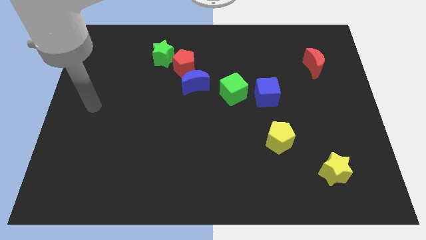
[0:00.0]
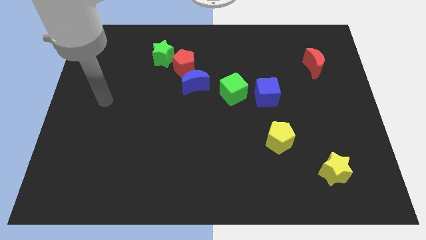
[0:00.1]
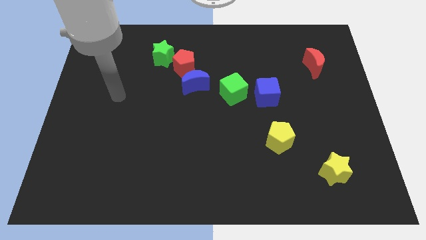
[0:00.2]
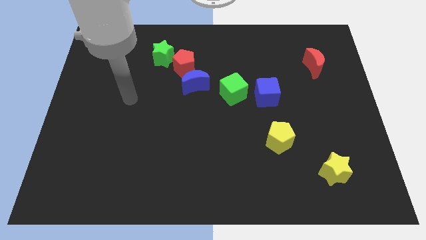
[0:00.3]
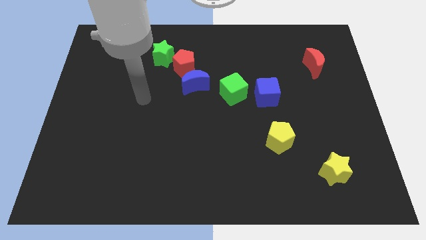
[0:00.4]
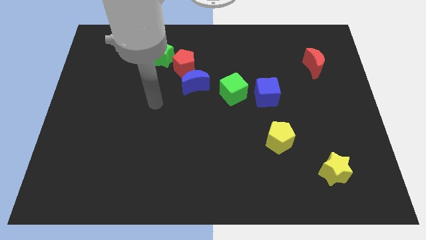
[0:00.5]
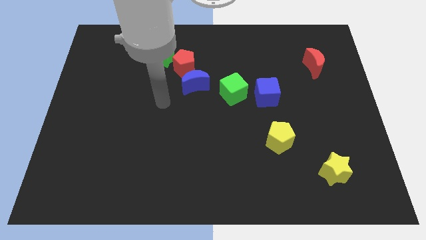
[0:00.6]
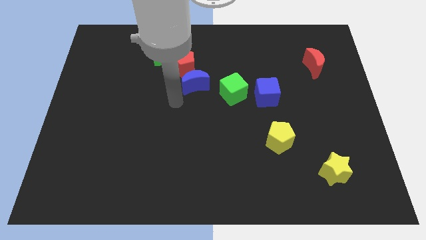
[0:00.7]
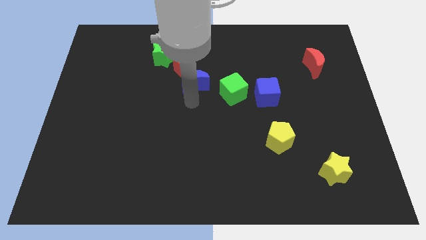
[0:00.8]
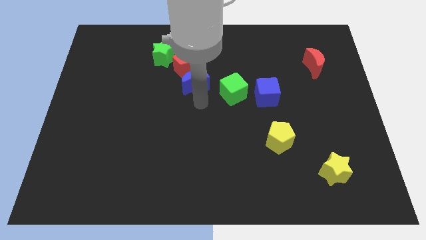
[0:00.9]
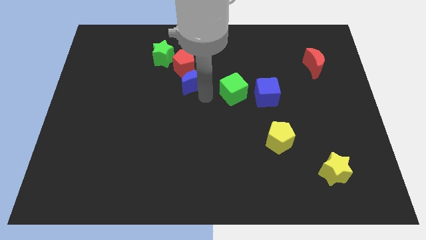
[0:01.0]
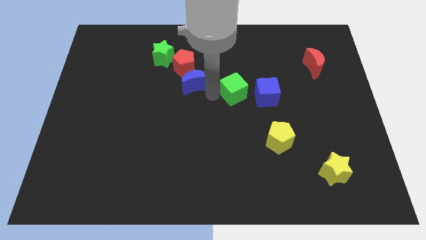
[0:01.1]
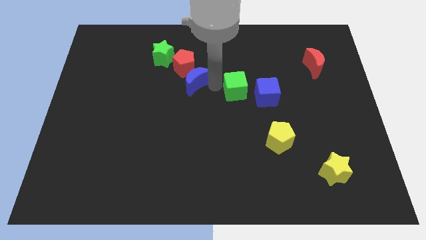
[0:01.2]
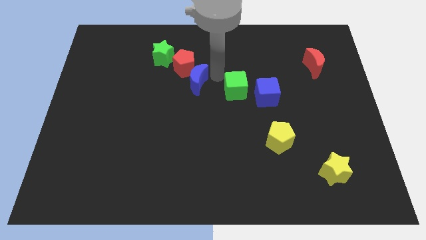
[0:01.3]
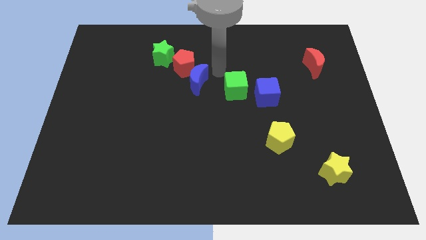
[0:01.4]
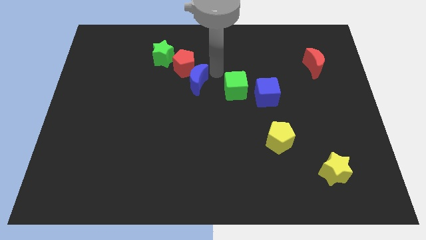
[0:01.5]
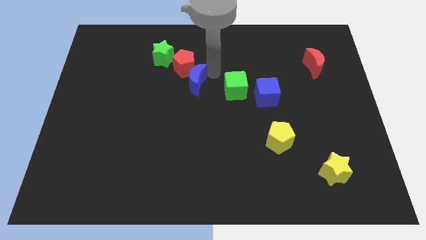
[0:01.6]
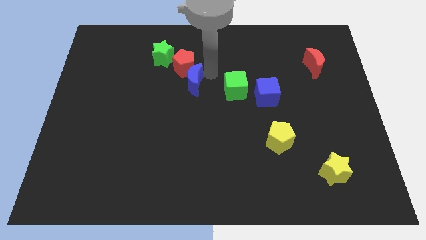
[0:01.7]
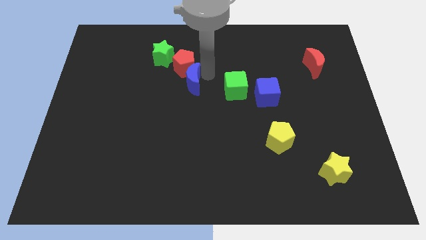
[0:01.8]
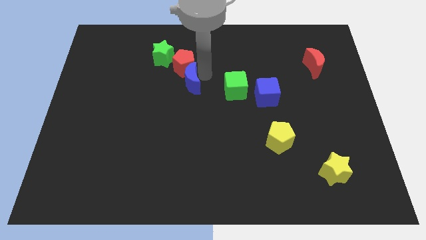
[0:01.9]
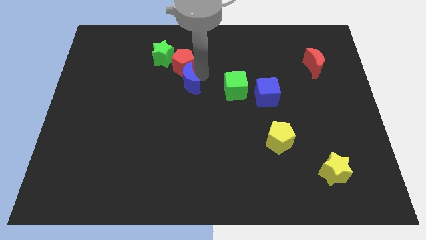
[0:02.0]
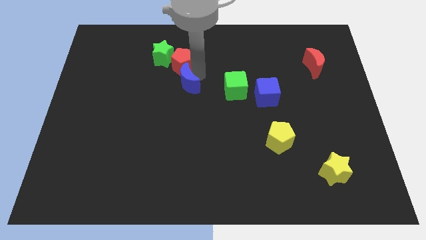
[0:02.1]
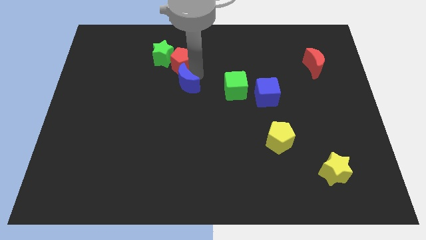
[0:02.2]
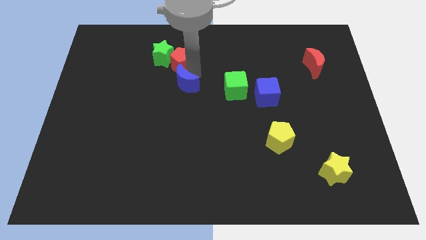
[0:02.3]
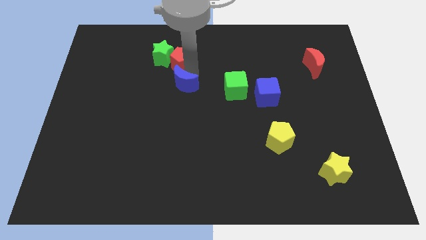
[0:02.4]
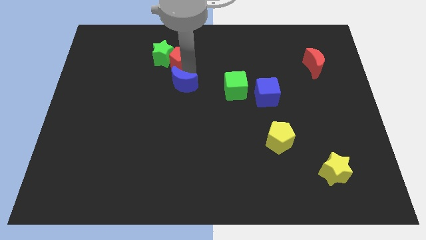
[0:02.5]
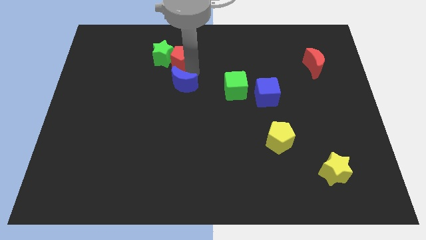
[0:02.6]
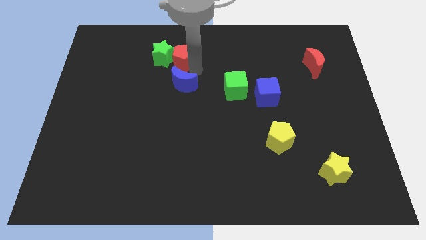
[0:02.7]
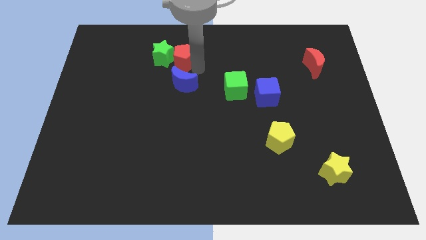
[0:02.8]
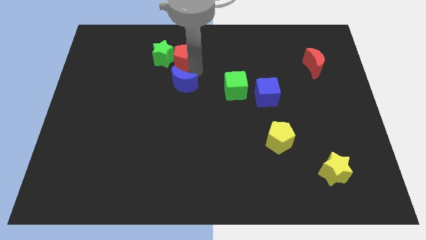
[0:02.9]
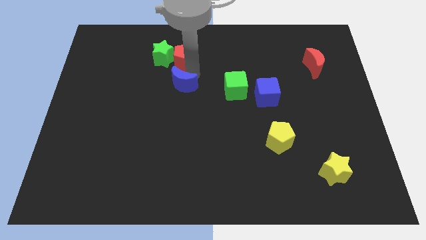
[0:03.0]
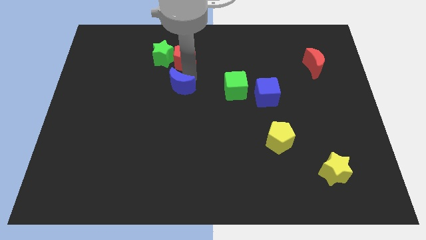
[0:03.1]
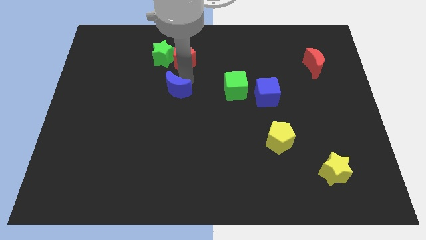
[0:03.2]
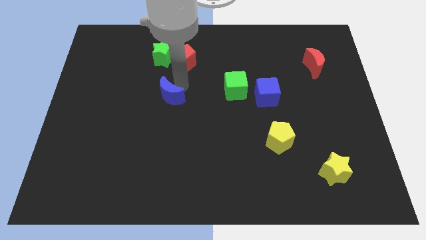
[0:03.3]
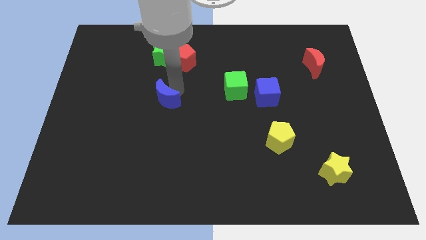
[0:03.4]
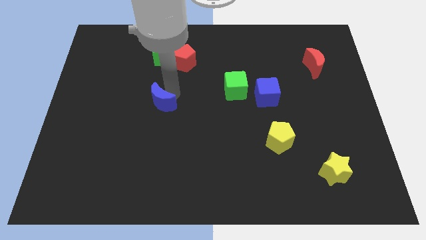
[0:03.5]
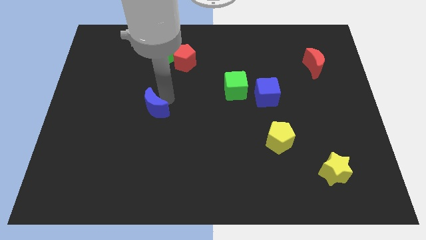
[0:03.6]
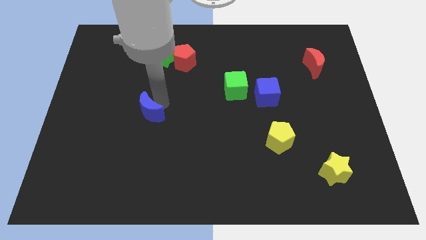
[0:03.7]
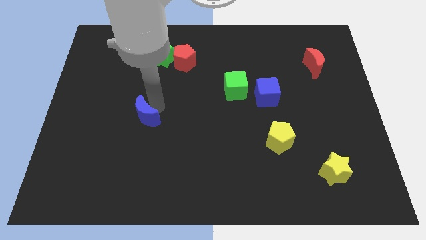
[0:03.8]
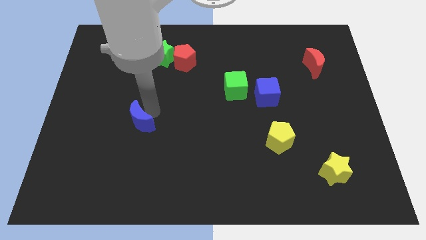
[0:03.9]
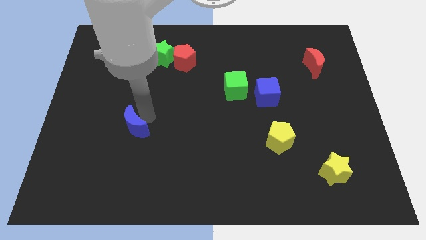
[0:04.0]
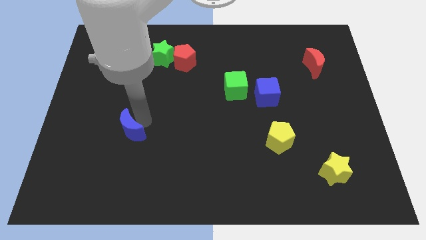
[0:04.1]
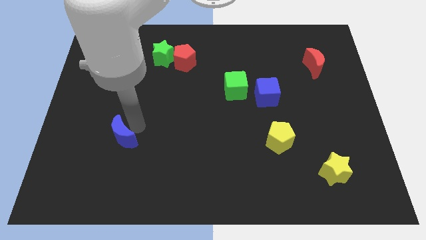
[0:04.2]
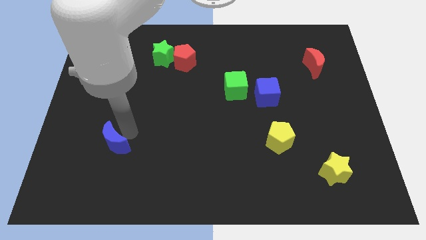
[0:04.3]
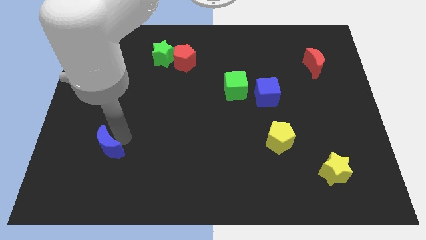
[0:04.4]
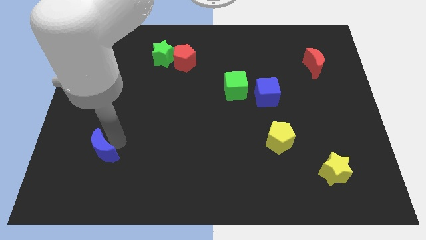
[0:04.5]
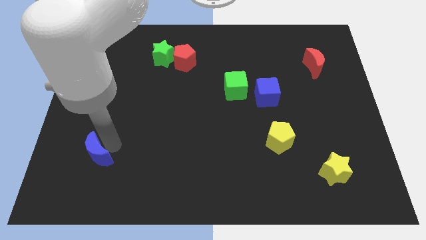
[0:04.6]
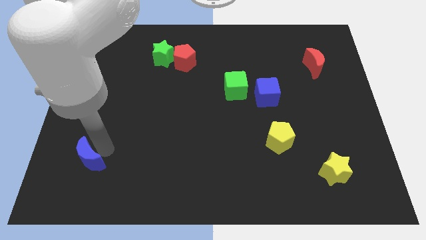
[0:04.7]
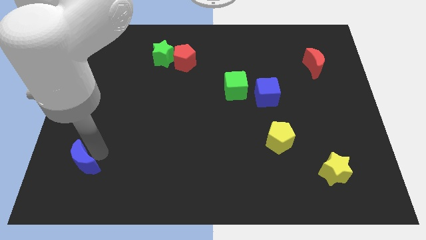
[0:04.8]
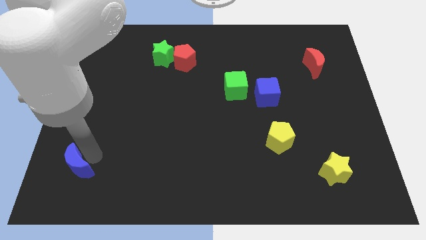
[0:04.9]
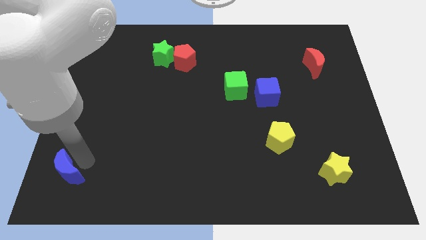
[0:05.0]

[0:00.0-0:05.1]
push the blue moon to the bottom left of the board
